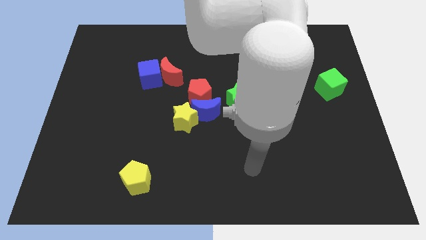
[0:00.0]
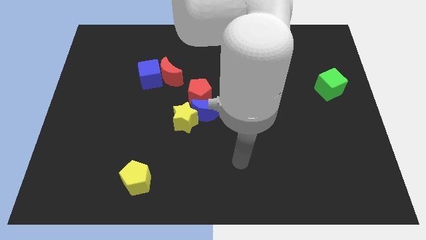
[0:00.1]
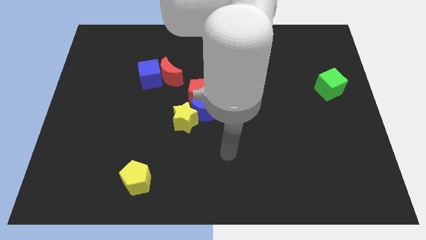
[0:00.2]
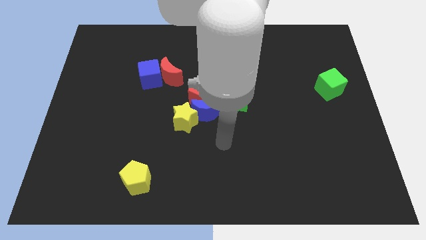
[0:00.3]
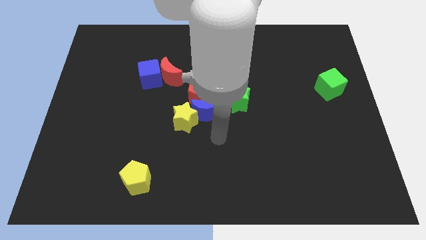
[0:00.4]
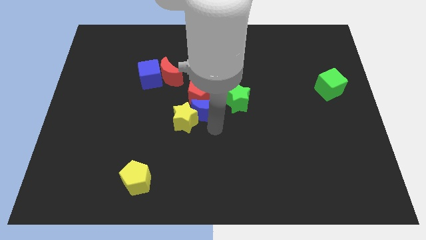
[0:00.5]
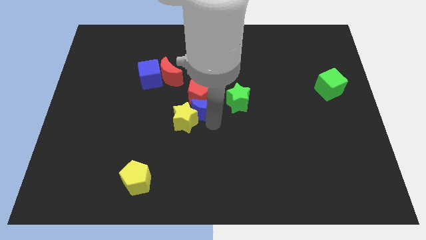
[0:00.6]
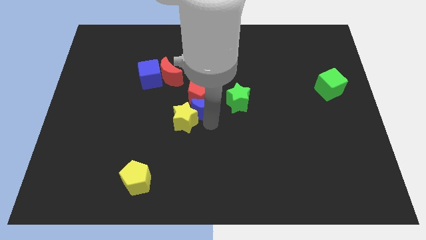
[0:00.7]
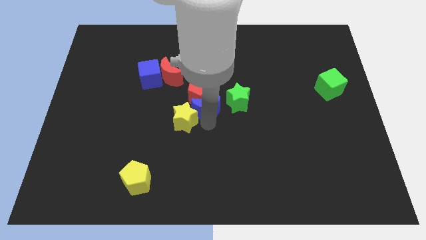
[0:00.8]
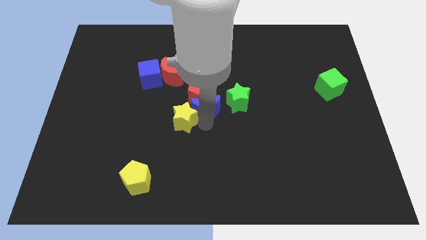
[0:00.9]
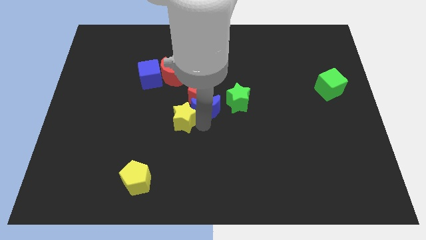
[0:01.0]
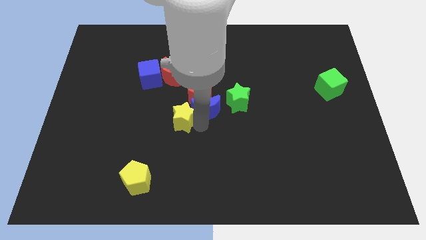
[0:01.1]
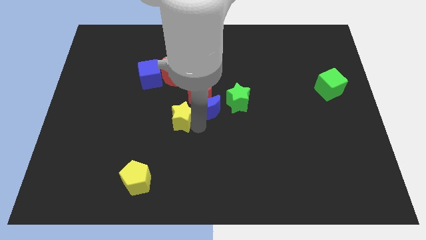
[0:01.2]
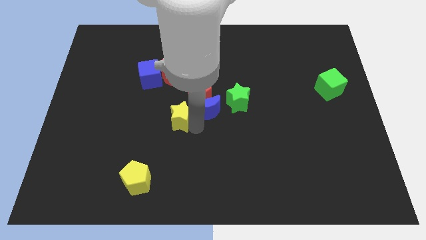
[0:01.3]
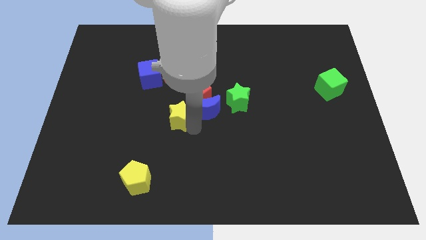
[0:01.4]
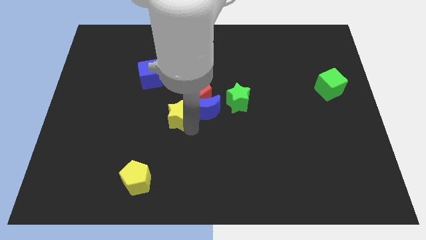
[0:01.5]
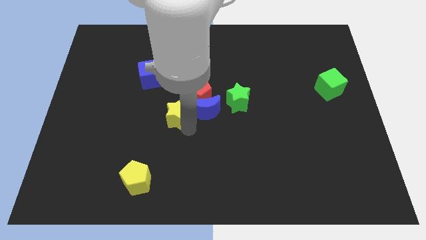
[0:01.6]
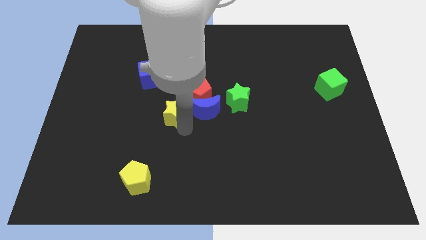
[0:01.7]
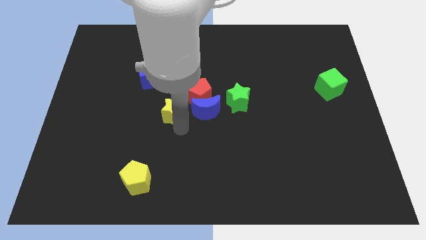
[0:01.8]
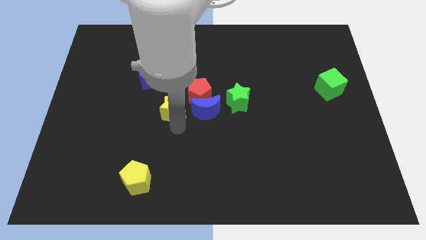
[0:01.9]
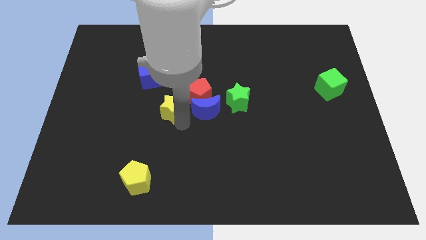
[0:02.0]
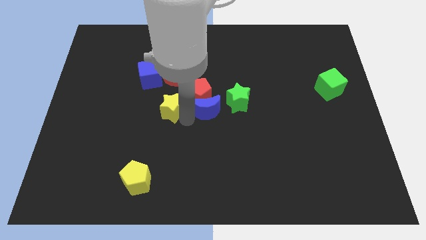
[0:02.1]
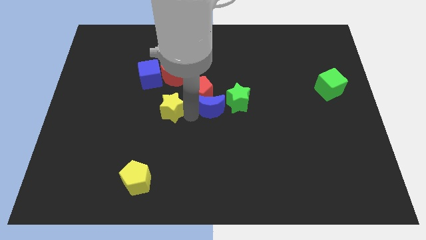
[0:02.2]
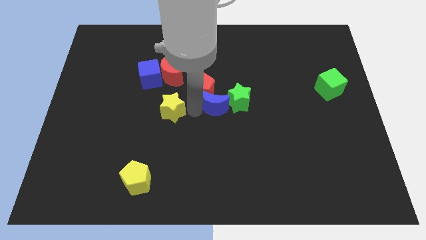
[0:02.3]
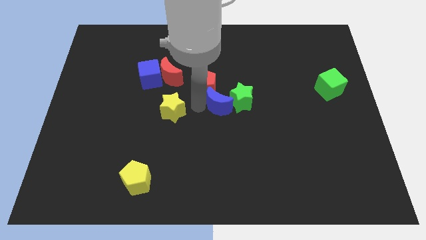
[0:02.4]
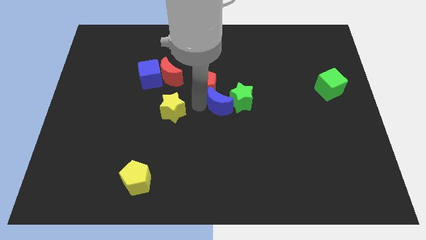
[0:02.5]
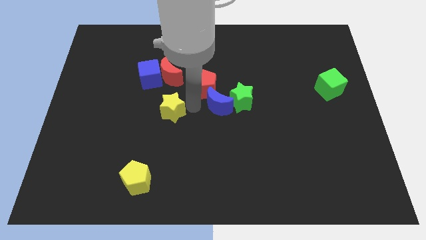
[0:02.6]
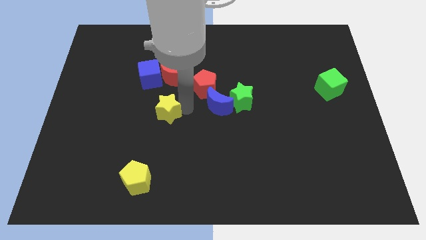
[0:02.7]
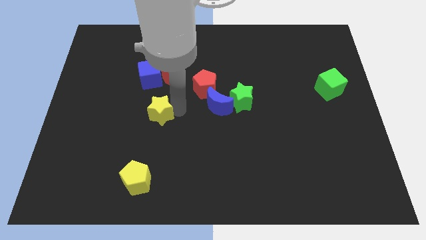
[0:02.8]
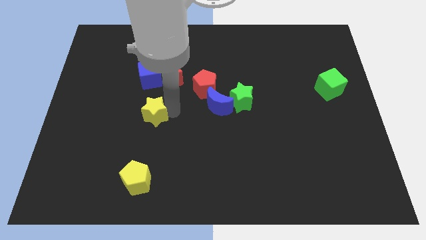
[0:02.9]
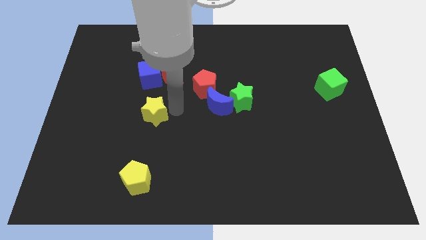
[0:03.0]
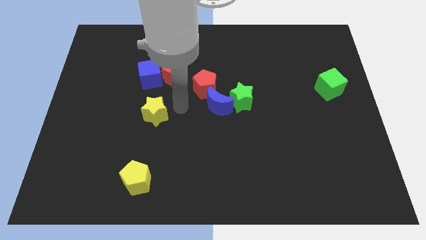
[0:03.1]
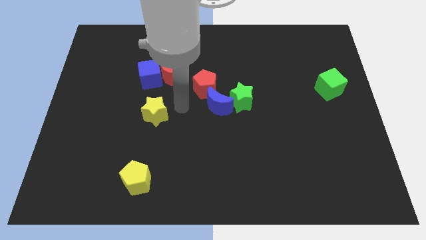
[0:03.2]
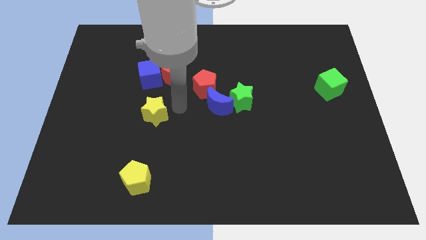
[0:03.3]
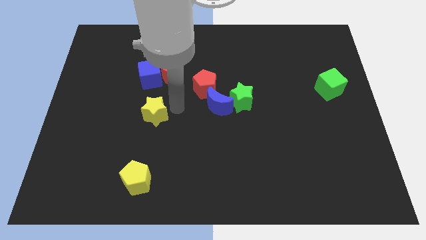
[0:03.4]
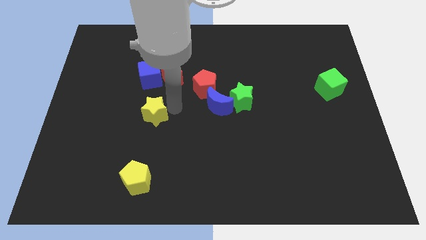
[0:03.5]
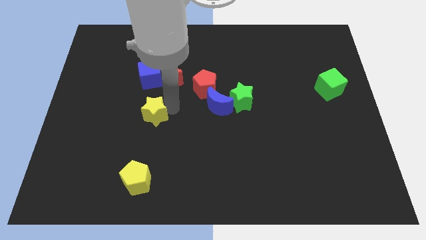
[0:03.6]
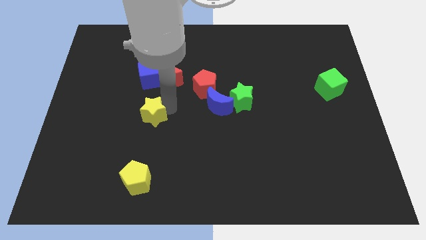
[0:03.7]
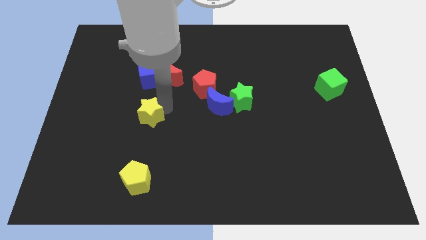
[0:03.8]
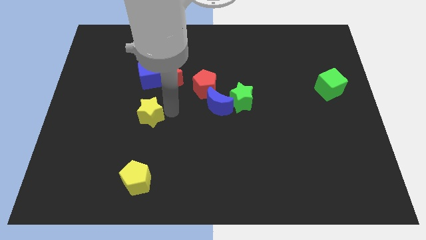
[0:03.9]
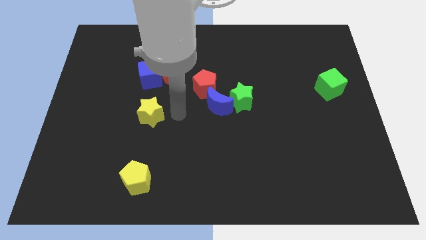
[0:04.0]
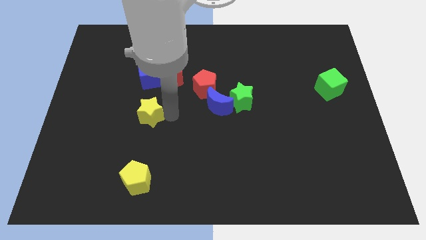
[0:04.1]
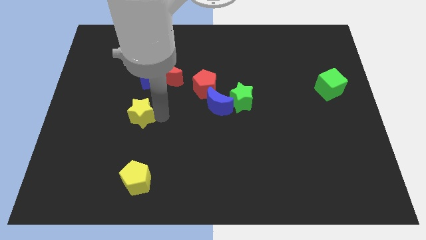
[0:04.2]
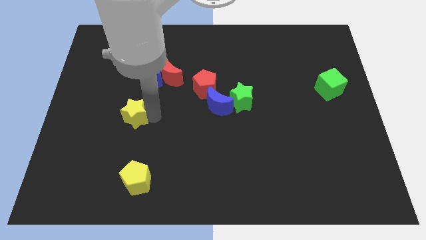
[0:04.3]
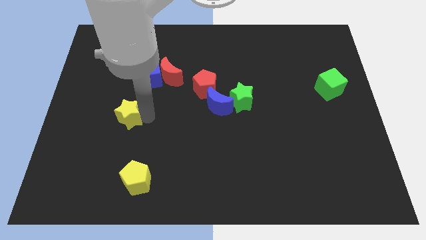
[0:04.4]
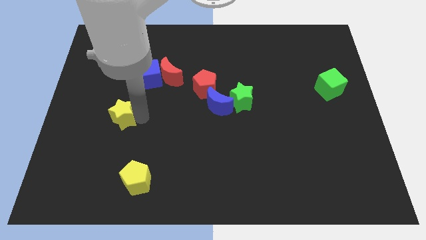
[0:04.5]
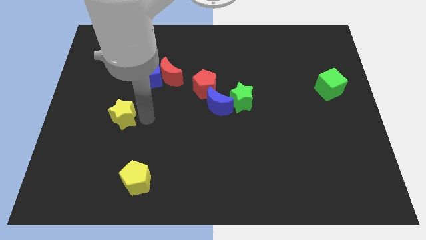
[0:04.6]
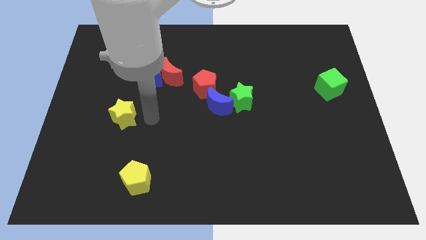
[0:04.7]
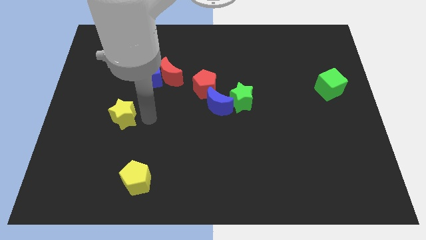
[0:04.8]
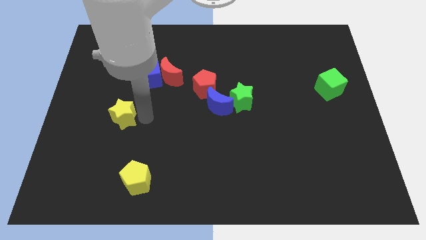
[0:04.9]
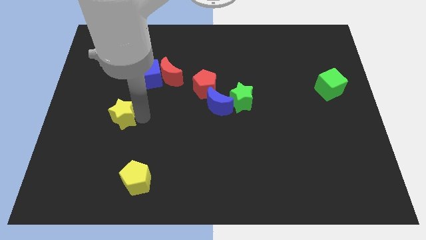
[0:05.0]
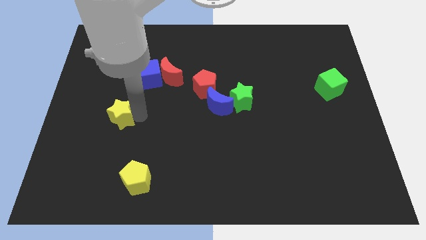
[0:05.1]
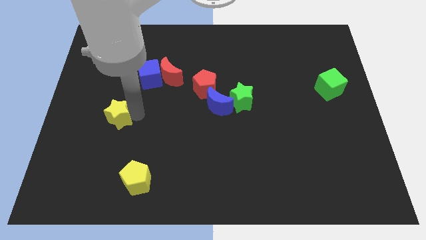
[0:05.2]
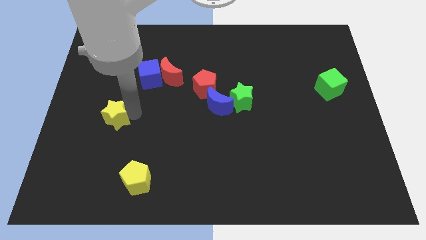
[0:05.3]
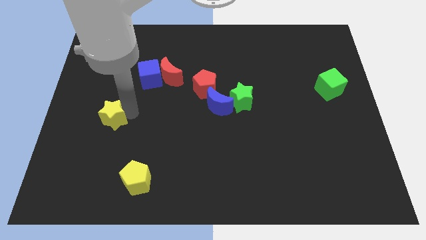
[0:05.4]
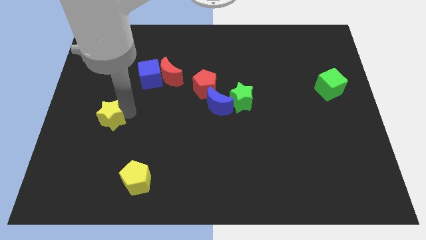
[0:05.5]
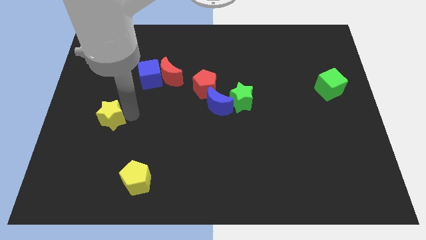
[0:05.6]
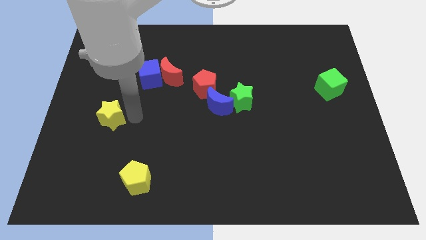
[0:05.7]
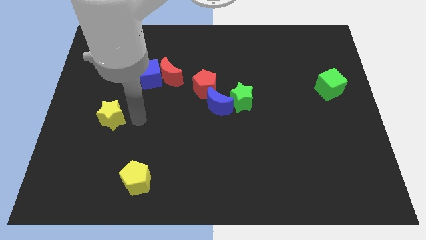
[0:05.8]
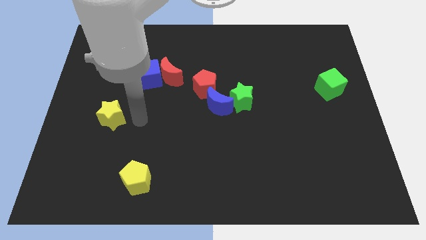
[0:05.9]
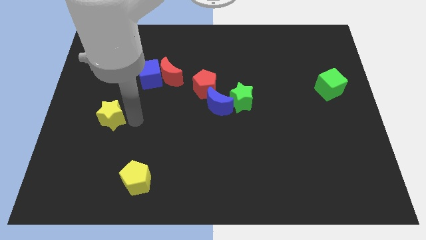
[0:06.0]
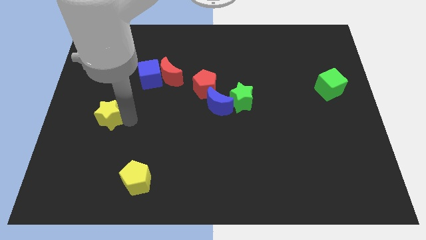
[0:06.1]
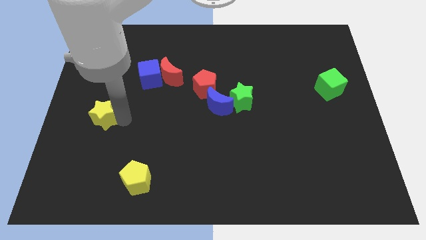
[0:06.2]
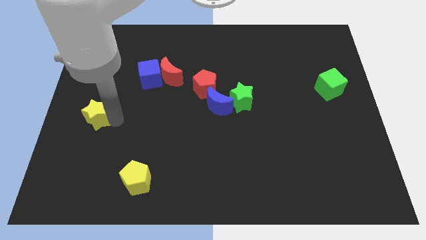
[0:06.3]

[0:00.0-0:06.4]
slide the yellow star to the left side of the board

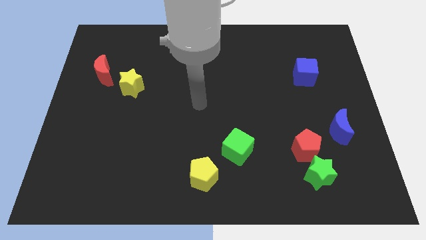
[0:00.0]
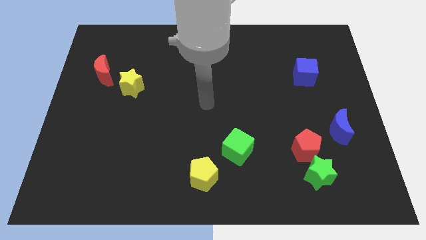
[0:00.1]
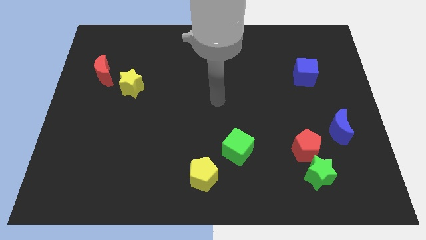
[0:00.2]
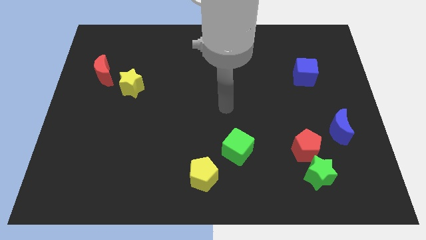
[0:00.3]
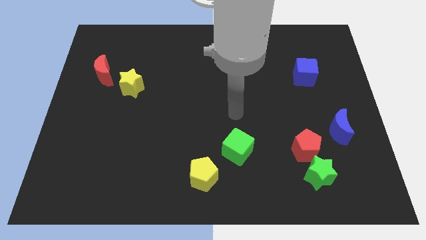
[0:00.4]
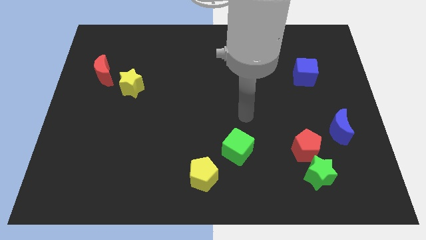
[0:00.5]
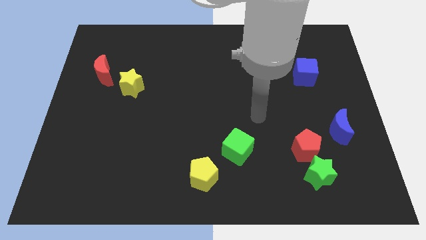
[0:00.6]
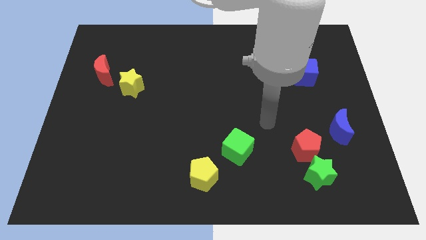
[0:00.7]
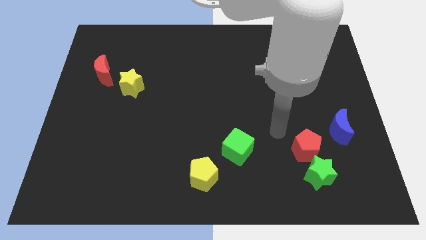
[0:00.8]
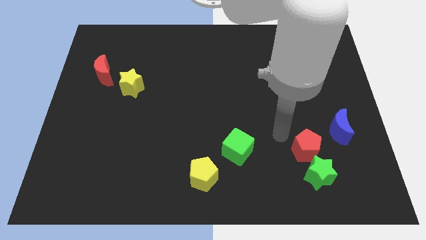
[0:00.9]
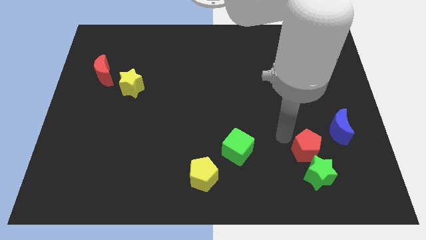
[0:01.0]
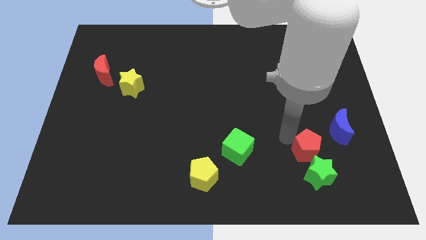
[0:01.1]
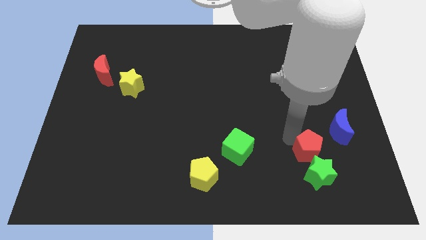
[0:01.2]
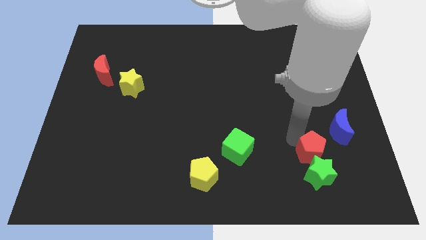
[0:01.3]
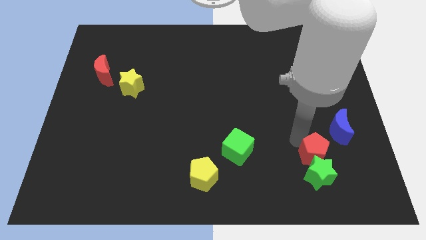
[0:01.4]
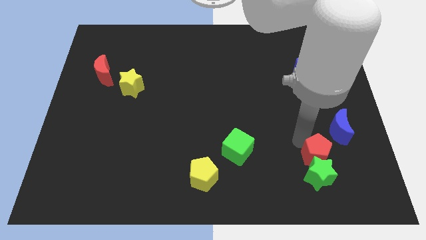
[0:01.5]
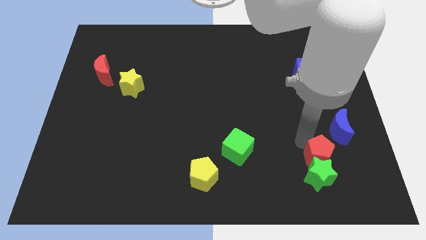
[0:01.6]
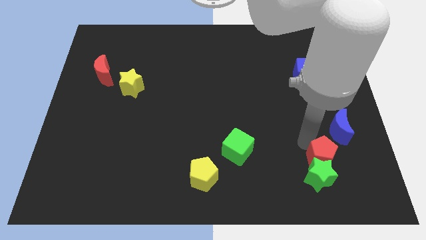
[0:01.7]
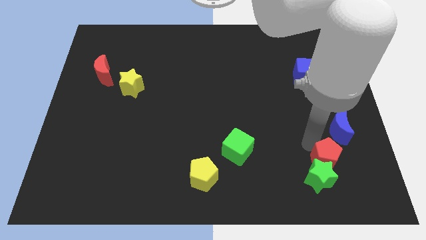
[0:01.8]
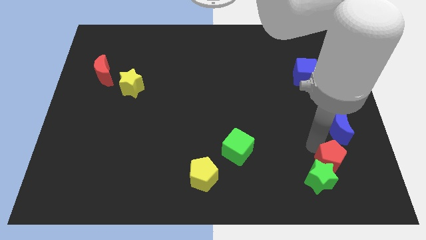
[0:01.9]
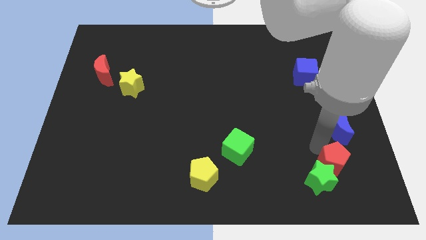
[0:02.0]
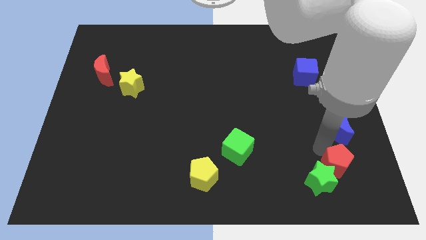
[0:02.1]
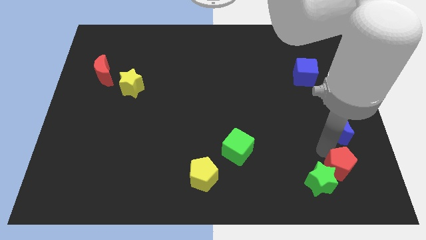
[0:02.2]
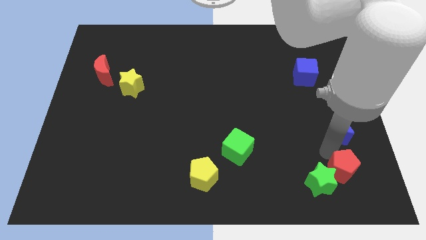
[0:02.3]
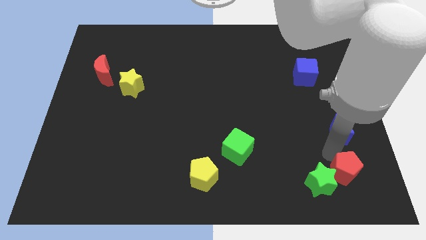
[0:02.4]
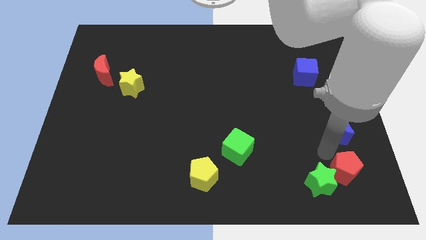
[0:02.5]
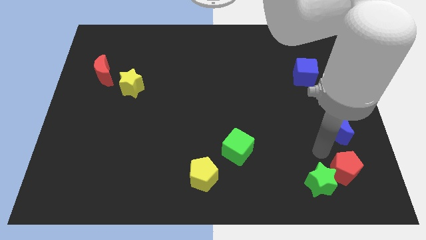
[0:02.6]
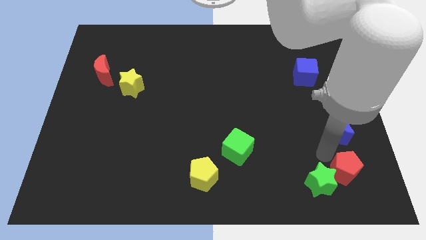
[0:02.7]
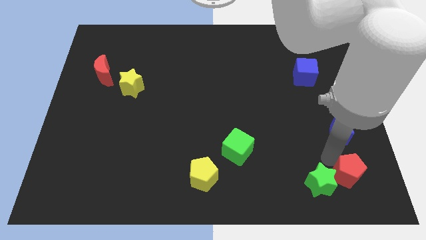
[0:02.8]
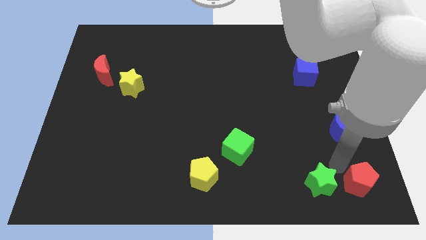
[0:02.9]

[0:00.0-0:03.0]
move the red pentagon to the bottom right corner
